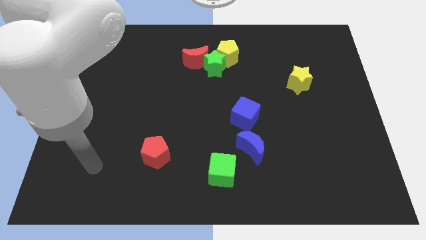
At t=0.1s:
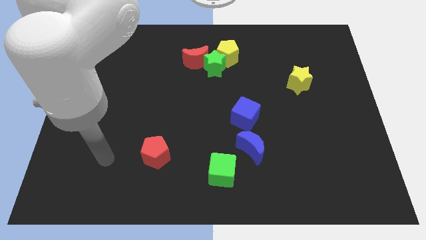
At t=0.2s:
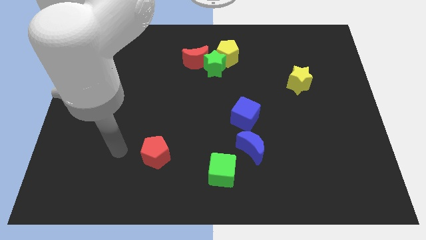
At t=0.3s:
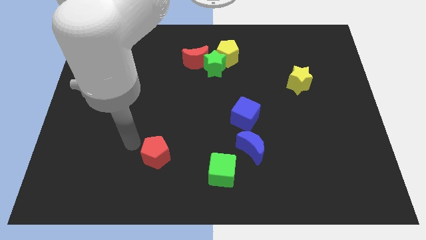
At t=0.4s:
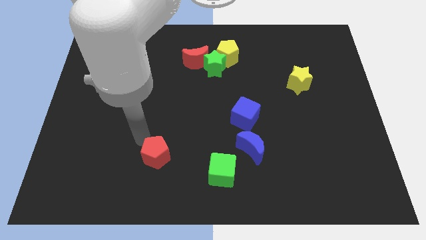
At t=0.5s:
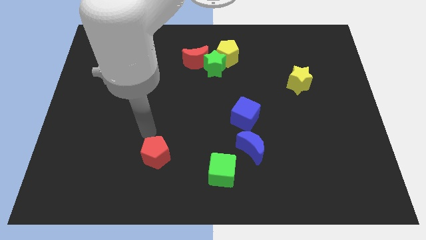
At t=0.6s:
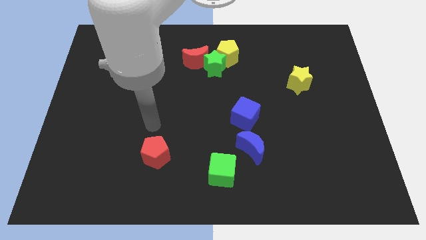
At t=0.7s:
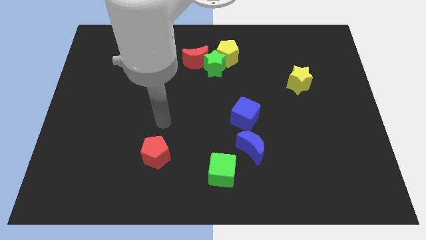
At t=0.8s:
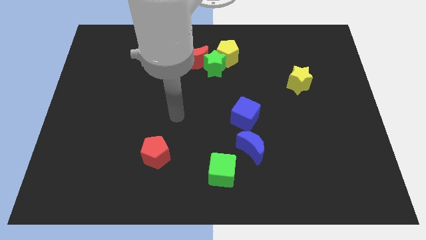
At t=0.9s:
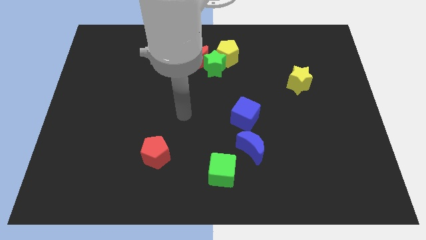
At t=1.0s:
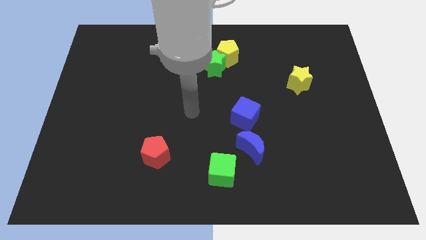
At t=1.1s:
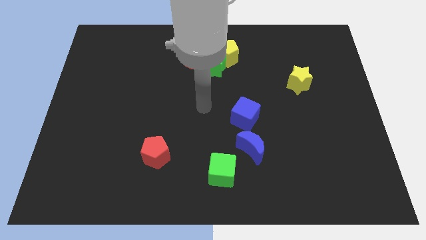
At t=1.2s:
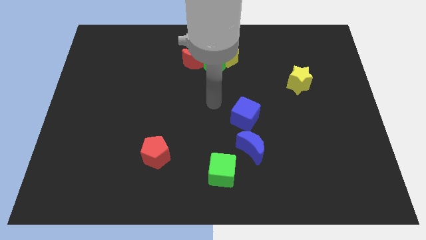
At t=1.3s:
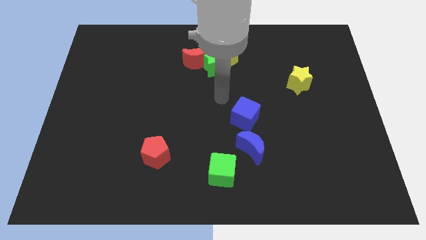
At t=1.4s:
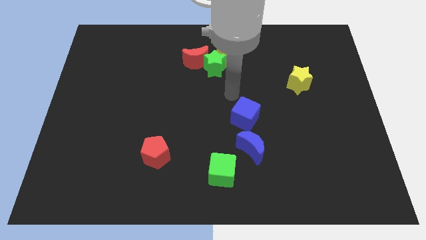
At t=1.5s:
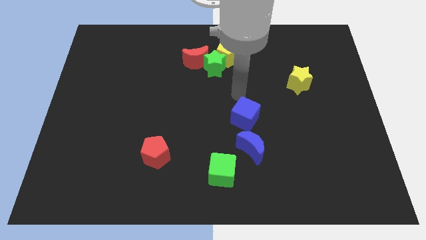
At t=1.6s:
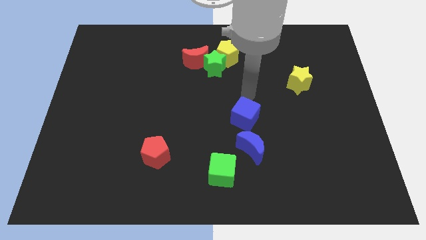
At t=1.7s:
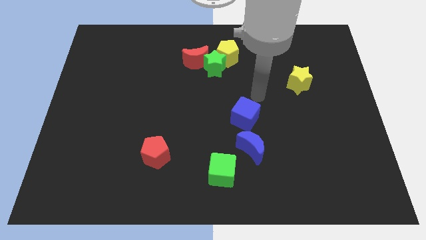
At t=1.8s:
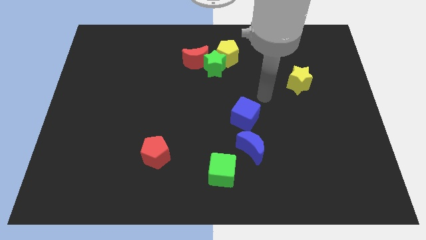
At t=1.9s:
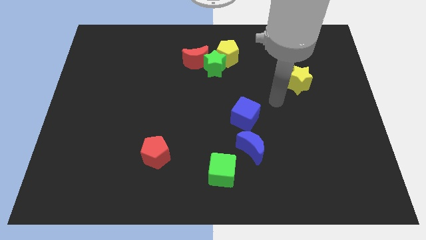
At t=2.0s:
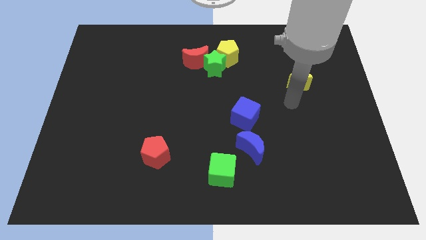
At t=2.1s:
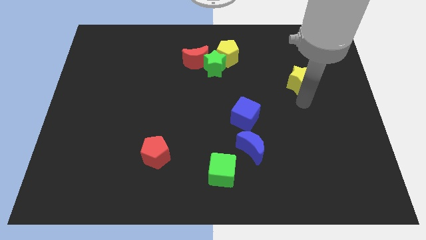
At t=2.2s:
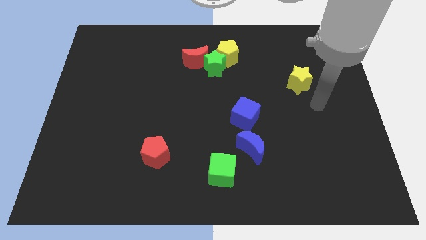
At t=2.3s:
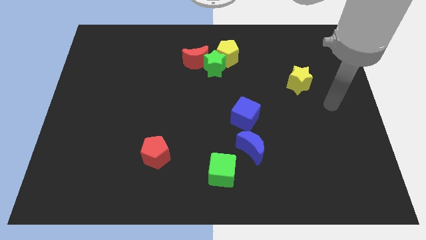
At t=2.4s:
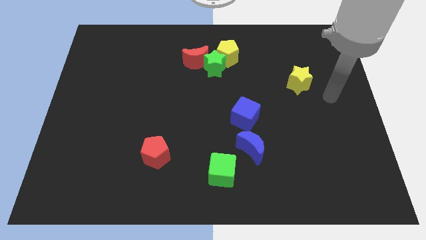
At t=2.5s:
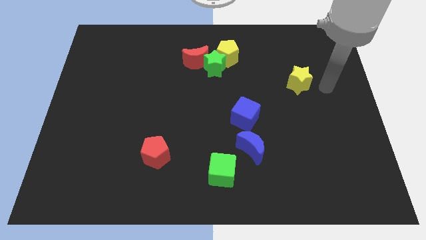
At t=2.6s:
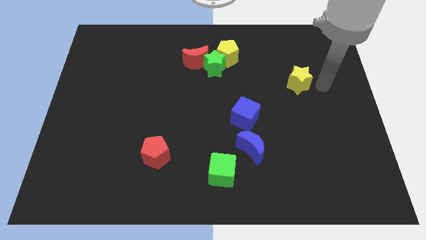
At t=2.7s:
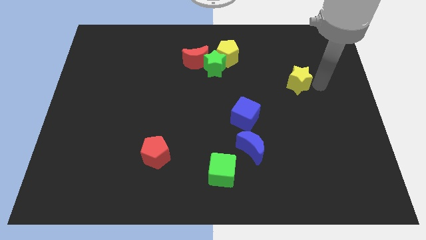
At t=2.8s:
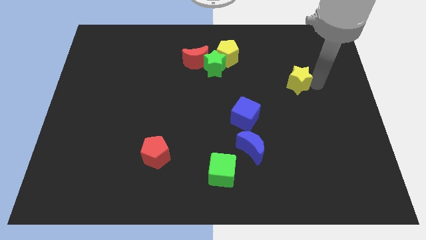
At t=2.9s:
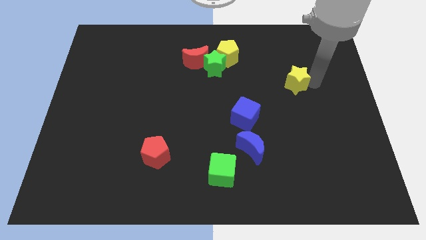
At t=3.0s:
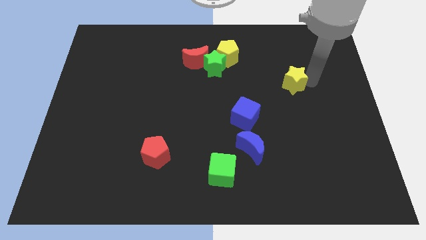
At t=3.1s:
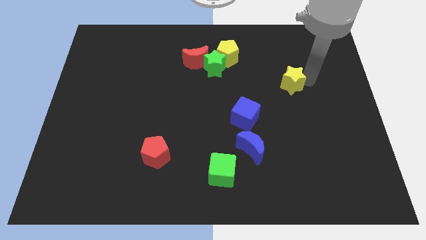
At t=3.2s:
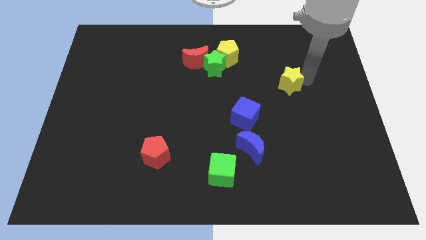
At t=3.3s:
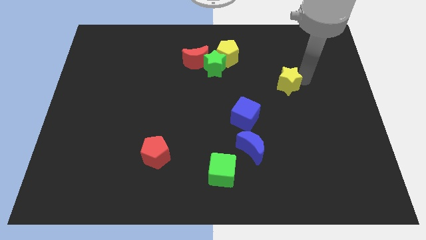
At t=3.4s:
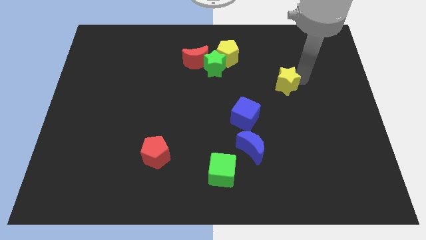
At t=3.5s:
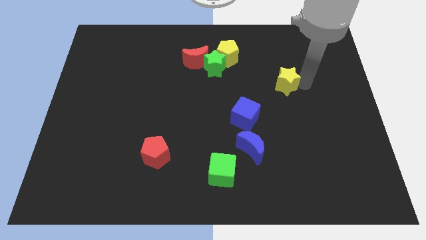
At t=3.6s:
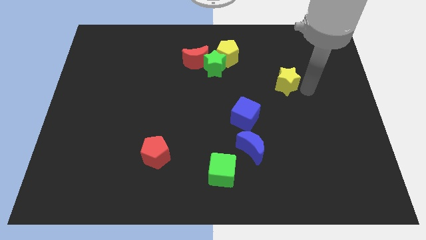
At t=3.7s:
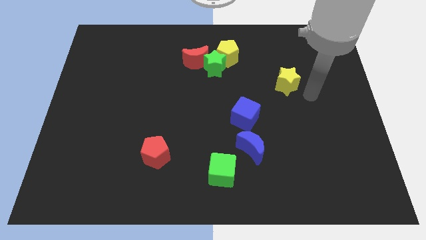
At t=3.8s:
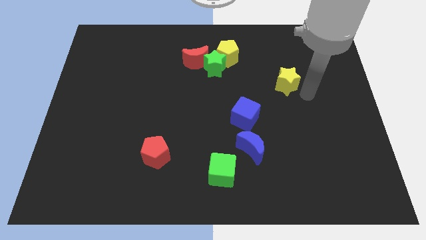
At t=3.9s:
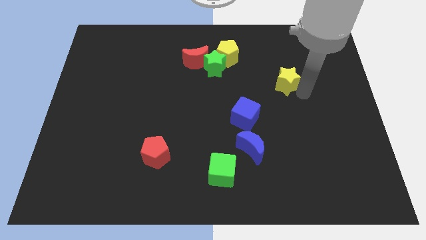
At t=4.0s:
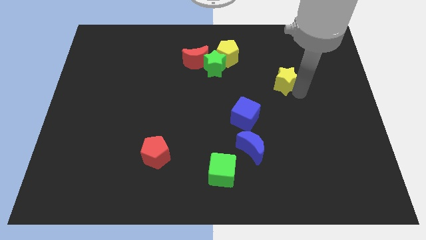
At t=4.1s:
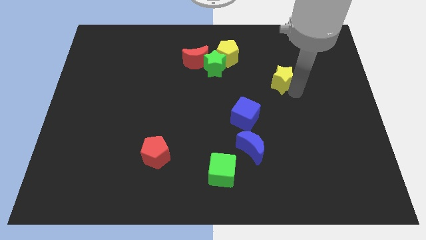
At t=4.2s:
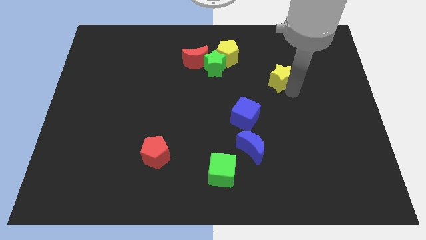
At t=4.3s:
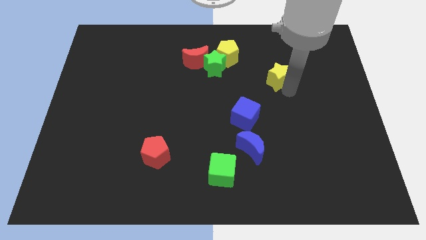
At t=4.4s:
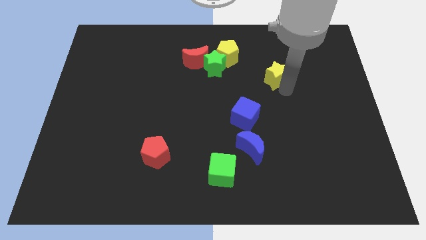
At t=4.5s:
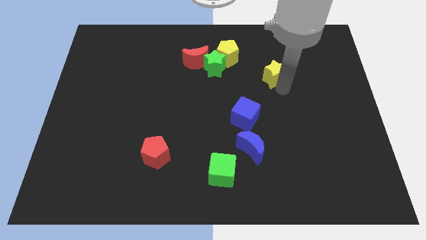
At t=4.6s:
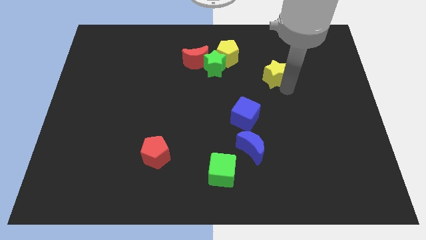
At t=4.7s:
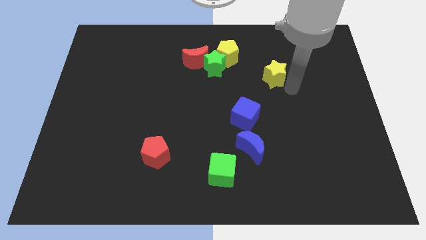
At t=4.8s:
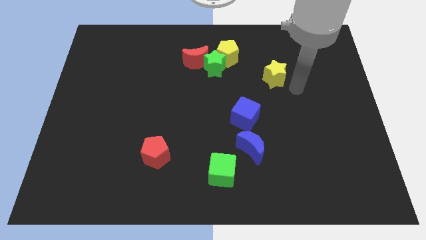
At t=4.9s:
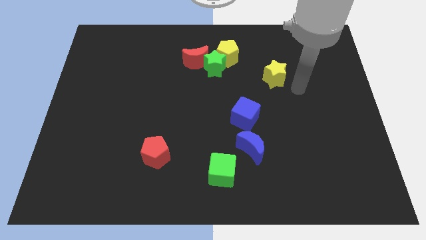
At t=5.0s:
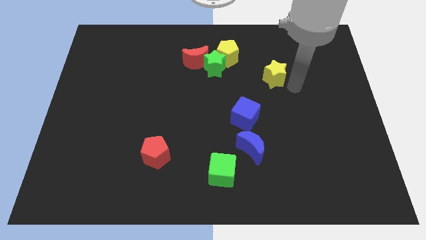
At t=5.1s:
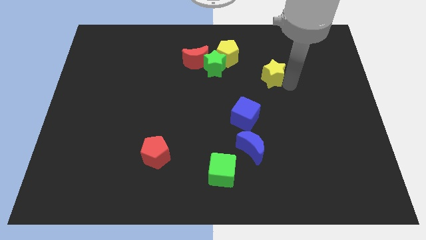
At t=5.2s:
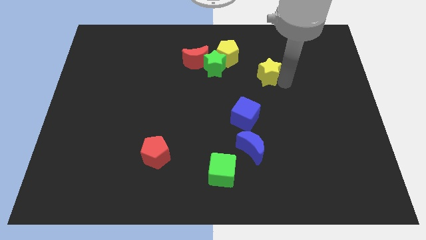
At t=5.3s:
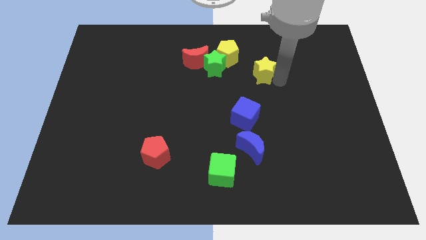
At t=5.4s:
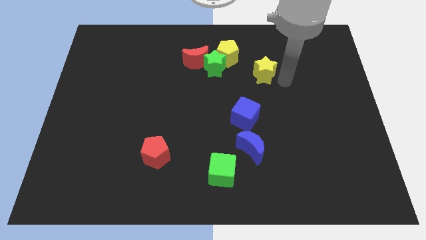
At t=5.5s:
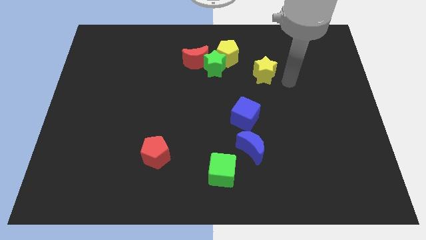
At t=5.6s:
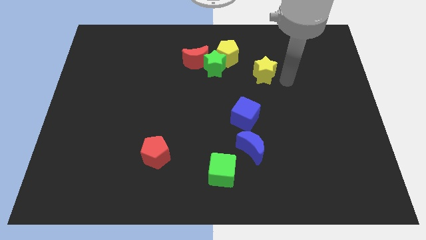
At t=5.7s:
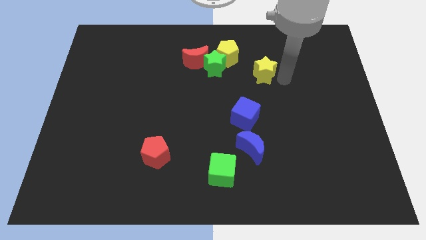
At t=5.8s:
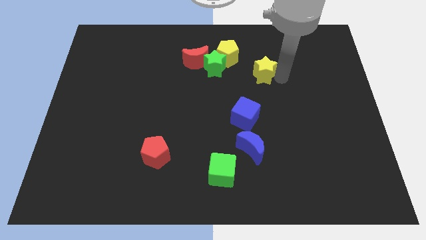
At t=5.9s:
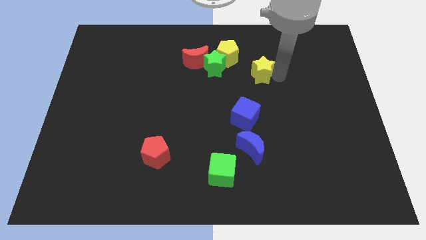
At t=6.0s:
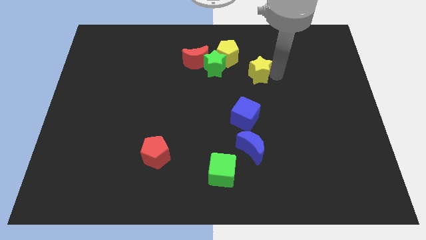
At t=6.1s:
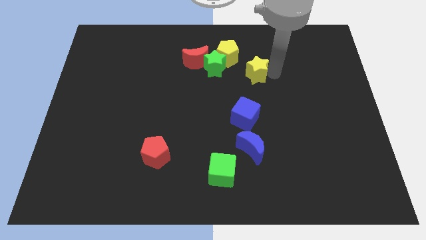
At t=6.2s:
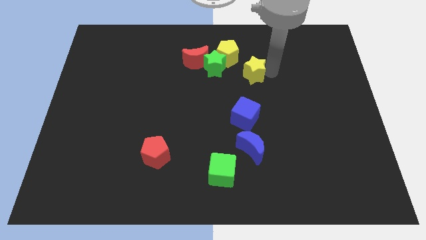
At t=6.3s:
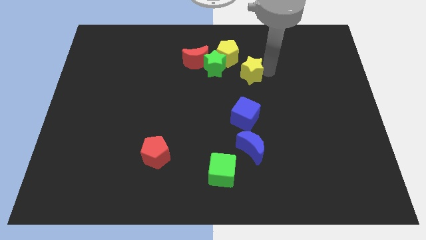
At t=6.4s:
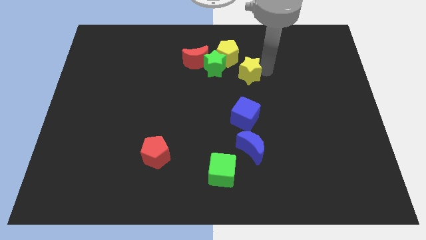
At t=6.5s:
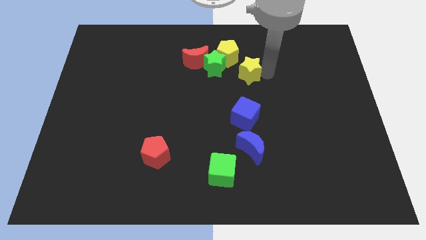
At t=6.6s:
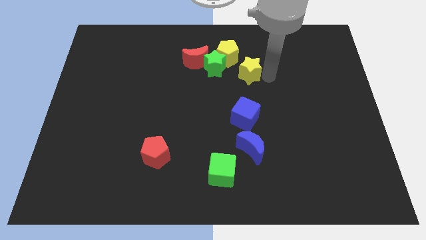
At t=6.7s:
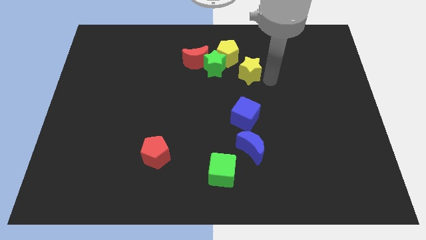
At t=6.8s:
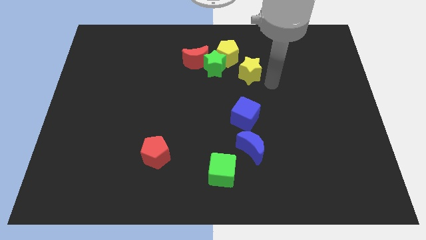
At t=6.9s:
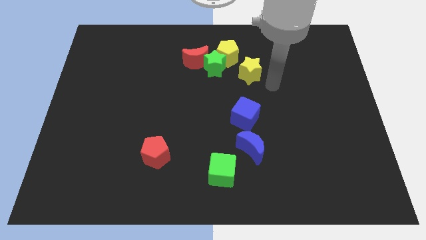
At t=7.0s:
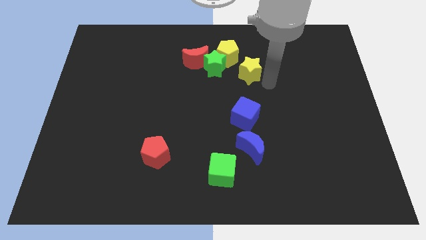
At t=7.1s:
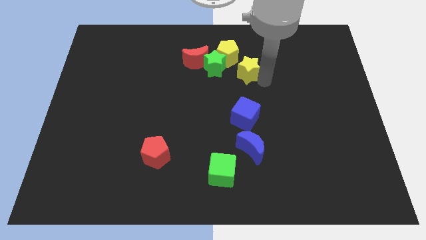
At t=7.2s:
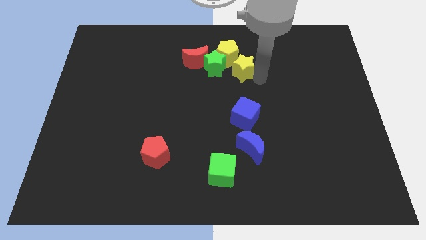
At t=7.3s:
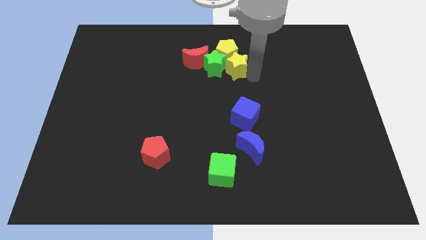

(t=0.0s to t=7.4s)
push the yellow star next to the yellow pentagon
